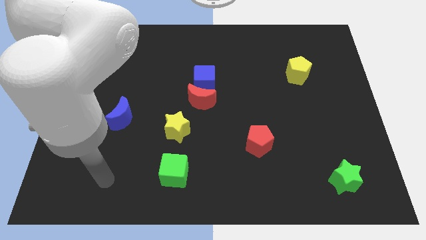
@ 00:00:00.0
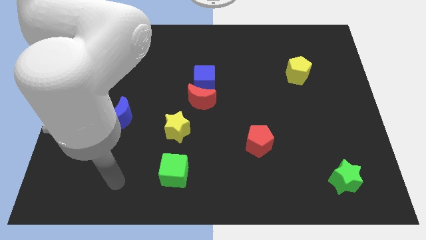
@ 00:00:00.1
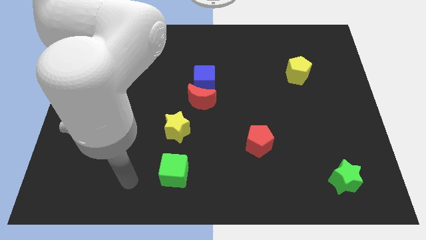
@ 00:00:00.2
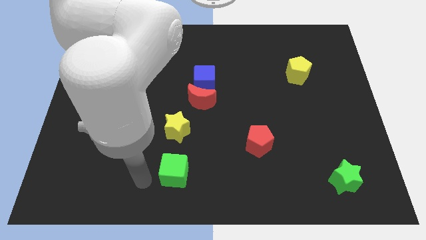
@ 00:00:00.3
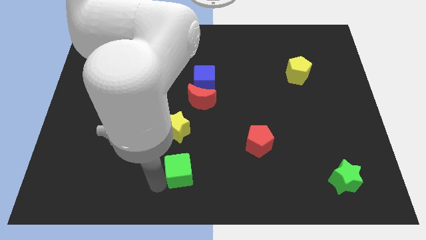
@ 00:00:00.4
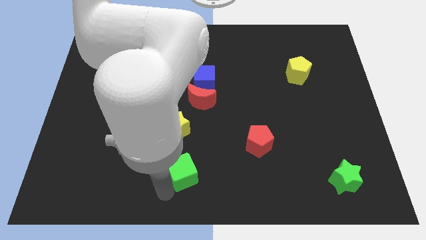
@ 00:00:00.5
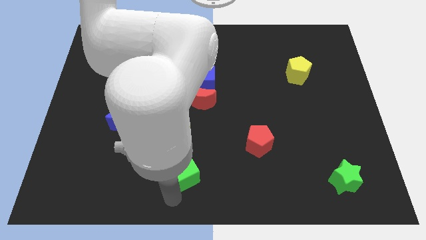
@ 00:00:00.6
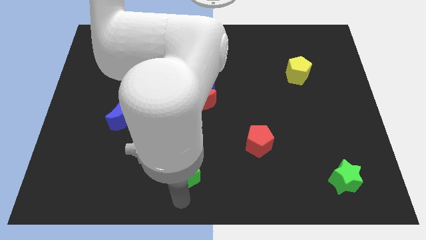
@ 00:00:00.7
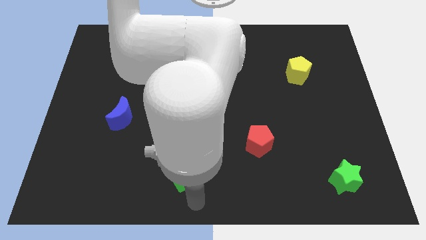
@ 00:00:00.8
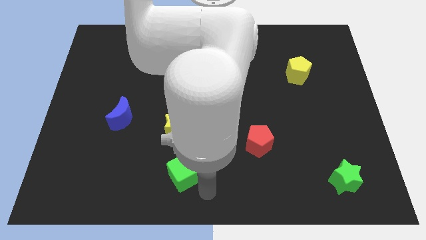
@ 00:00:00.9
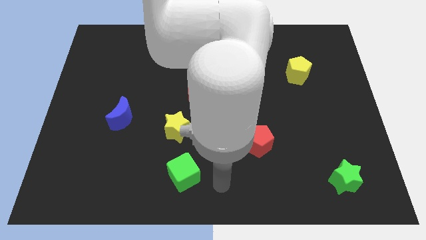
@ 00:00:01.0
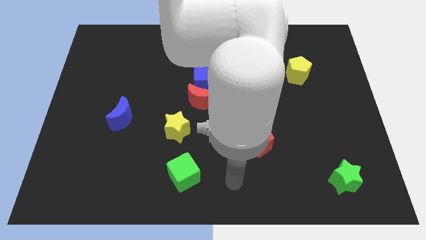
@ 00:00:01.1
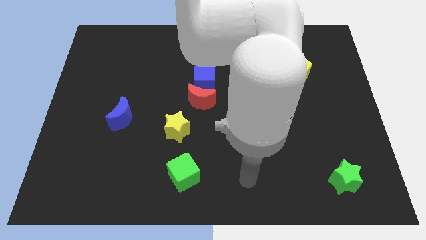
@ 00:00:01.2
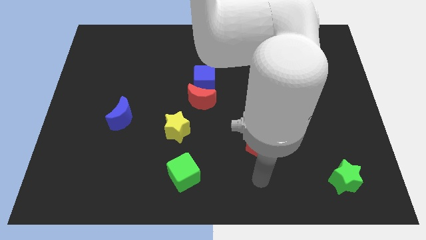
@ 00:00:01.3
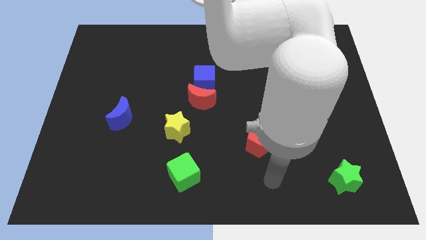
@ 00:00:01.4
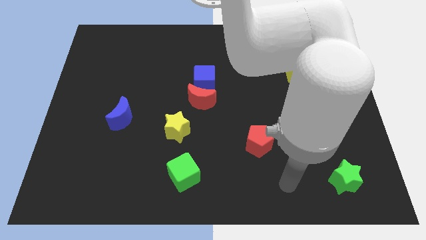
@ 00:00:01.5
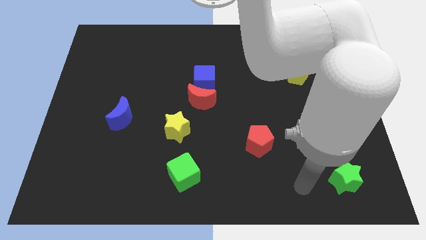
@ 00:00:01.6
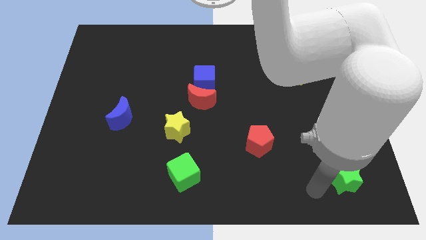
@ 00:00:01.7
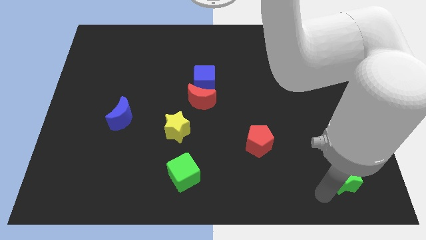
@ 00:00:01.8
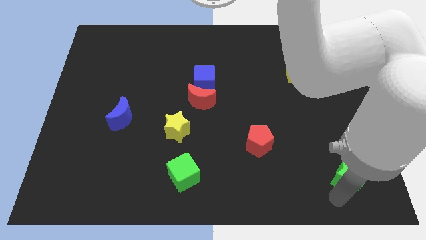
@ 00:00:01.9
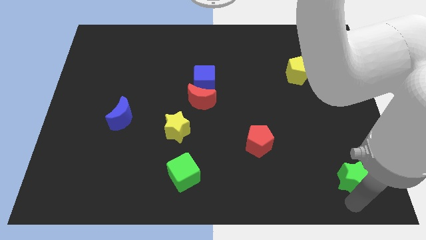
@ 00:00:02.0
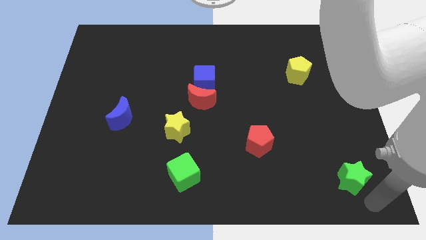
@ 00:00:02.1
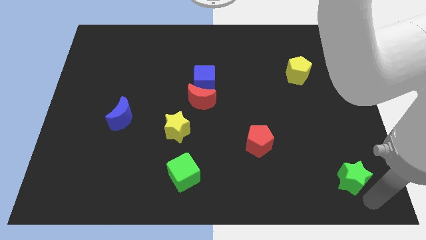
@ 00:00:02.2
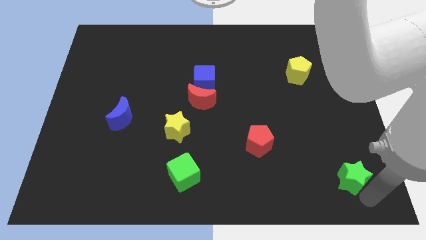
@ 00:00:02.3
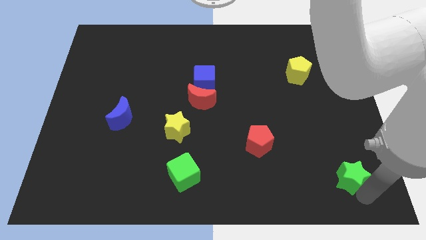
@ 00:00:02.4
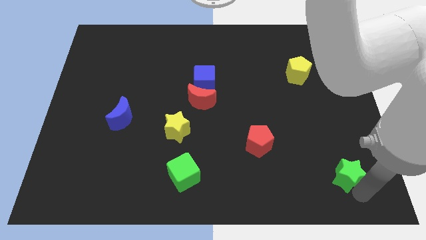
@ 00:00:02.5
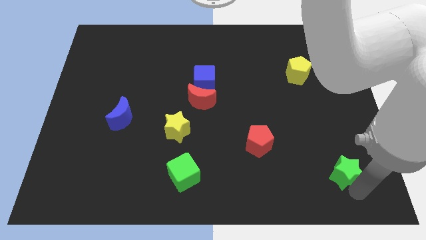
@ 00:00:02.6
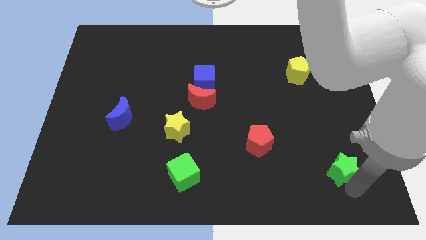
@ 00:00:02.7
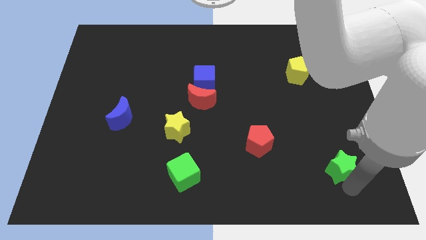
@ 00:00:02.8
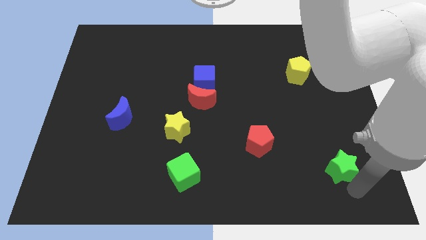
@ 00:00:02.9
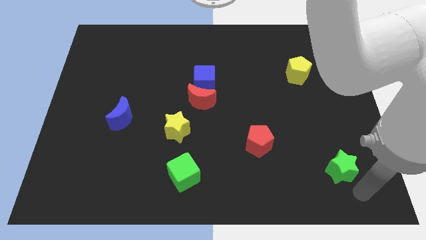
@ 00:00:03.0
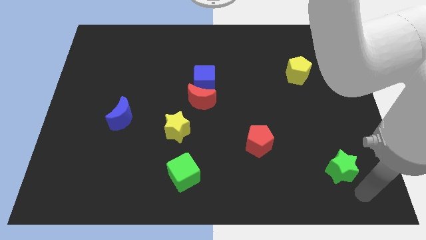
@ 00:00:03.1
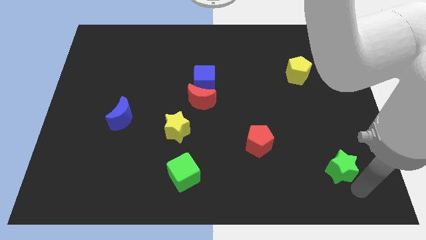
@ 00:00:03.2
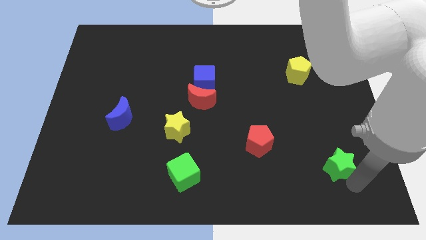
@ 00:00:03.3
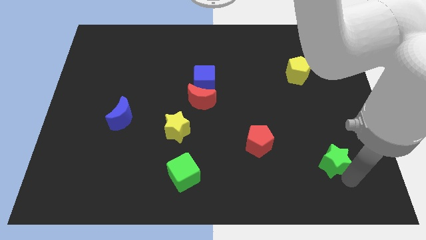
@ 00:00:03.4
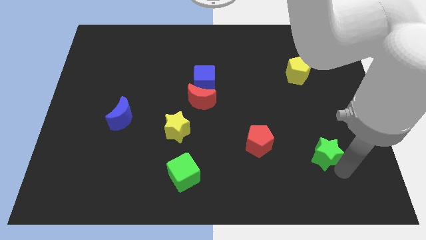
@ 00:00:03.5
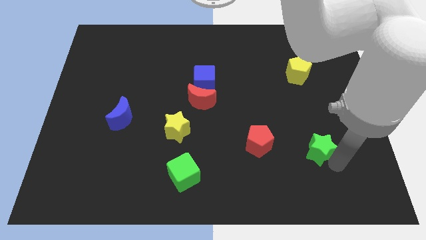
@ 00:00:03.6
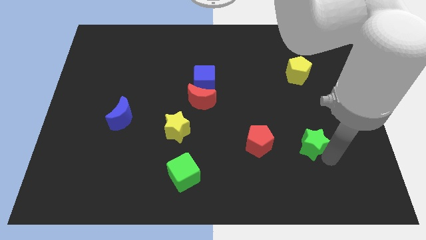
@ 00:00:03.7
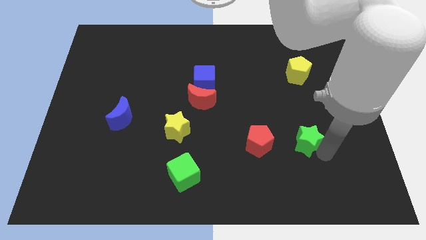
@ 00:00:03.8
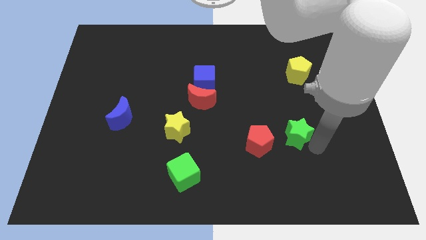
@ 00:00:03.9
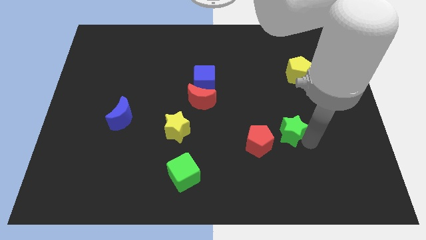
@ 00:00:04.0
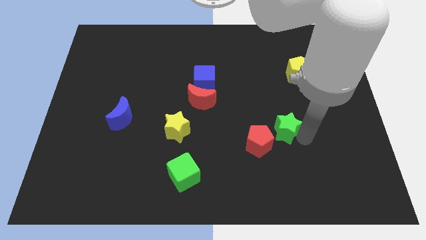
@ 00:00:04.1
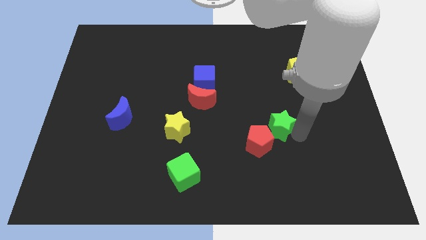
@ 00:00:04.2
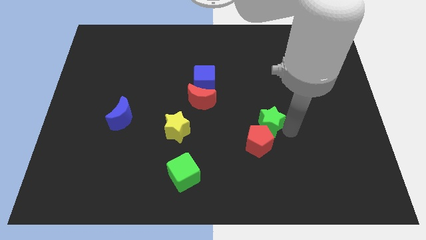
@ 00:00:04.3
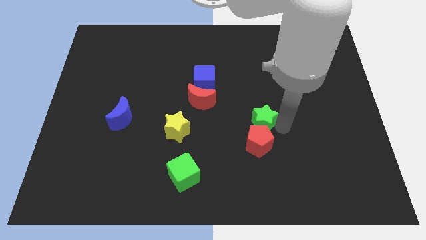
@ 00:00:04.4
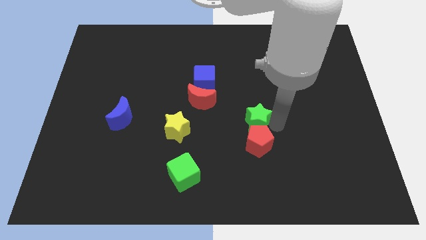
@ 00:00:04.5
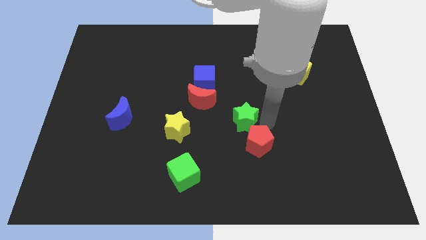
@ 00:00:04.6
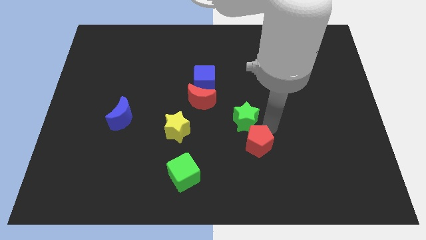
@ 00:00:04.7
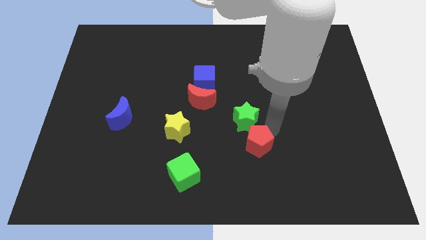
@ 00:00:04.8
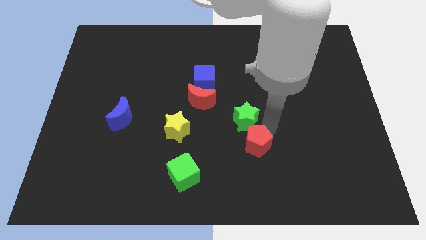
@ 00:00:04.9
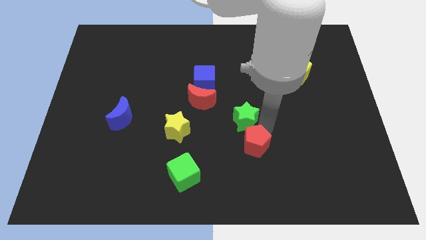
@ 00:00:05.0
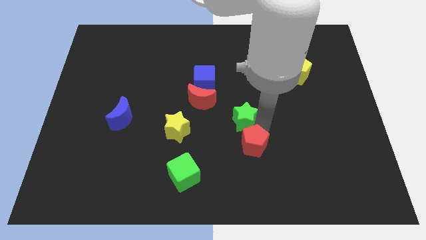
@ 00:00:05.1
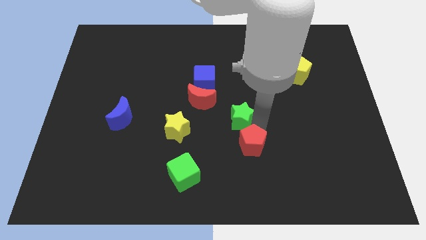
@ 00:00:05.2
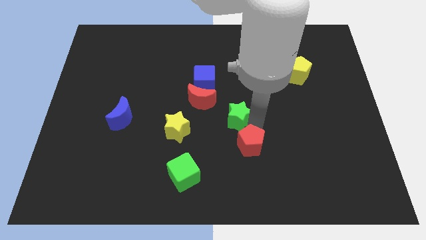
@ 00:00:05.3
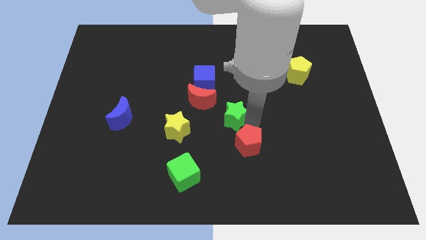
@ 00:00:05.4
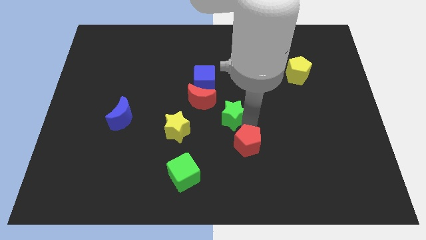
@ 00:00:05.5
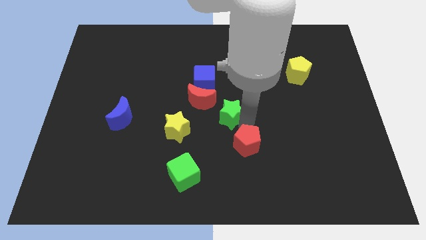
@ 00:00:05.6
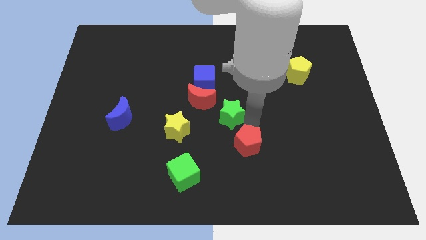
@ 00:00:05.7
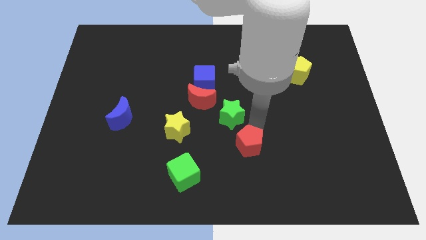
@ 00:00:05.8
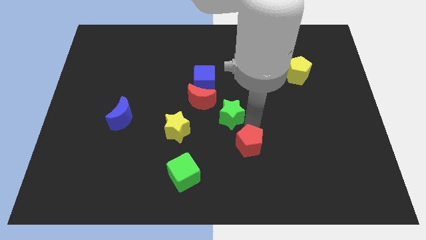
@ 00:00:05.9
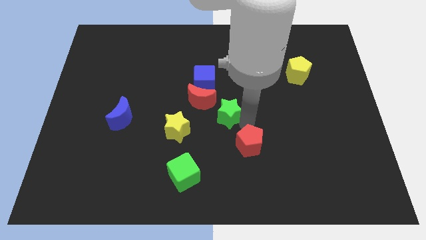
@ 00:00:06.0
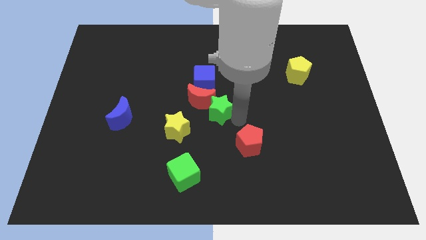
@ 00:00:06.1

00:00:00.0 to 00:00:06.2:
slide the green star next to the red moon
